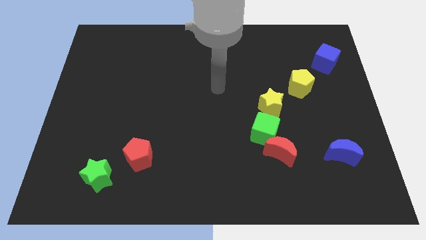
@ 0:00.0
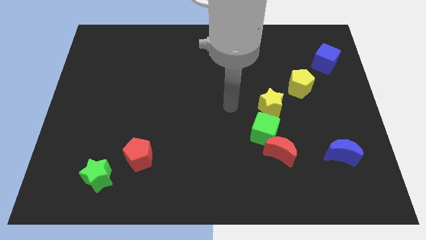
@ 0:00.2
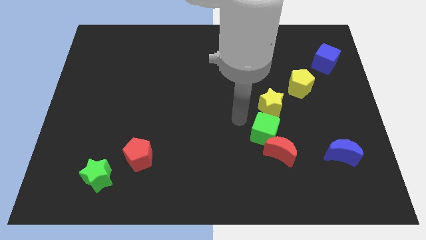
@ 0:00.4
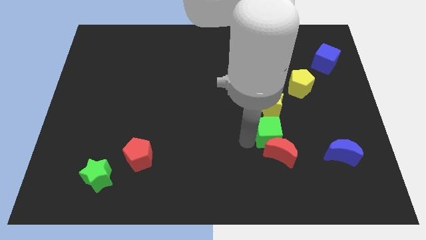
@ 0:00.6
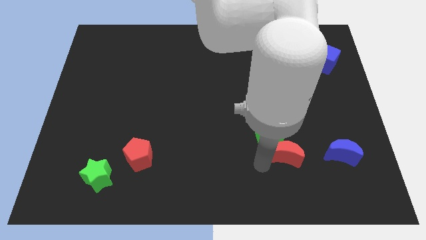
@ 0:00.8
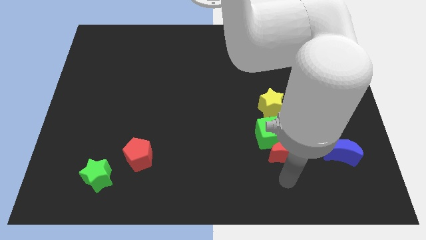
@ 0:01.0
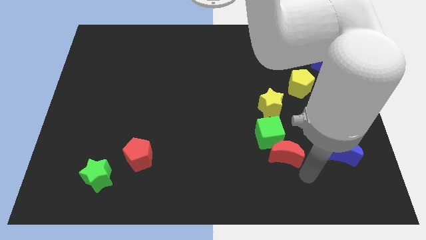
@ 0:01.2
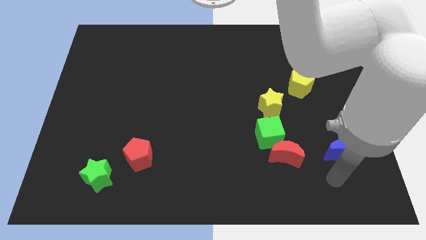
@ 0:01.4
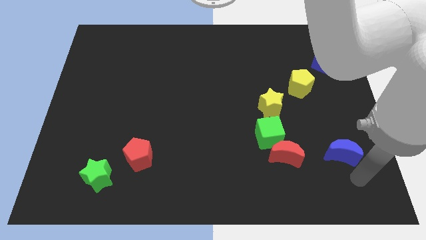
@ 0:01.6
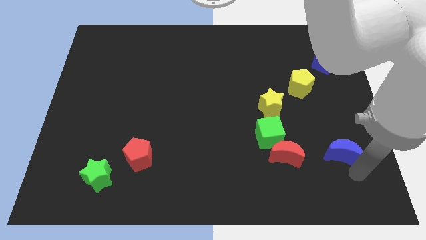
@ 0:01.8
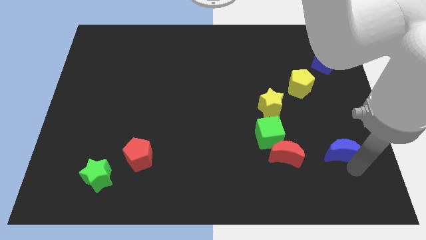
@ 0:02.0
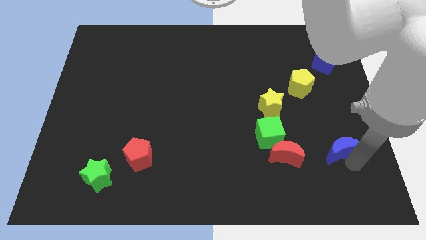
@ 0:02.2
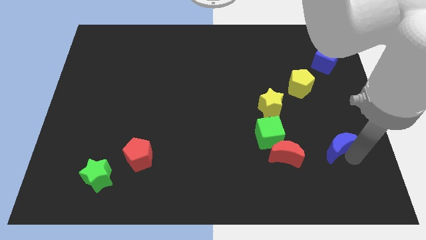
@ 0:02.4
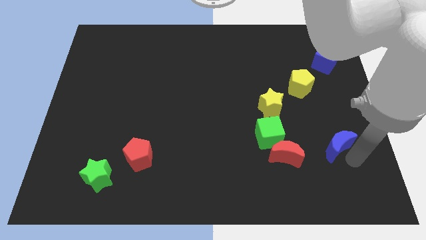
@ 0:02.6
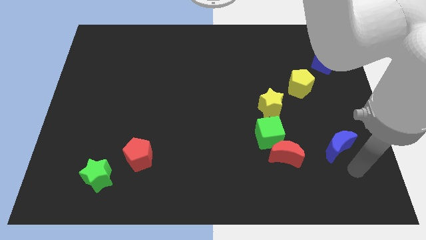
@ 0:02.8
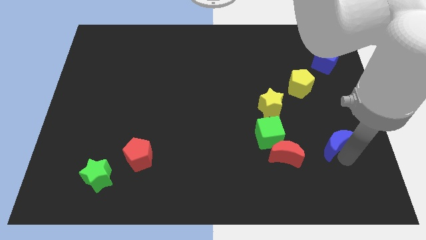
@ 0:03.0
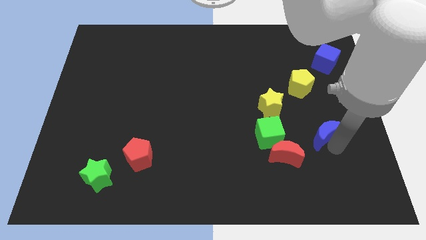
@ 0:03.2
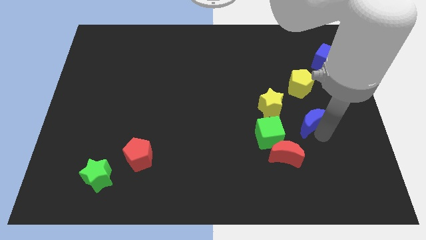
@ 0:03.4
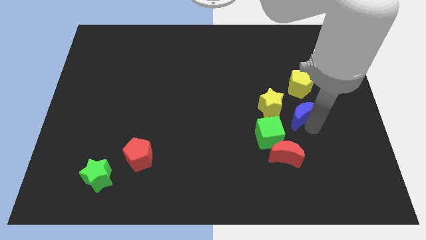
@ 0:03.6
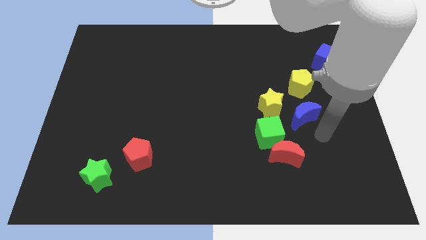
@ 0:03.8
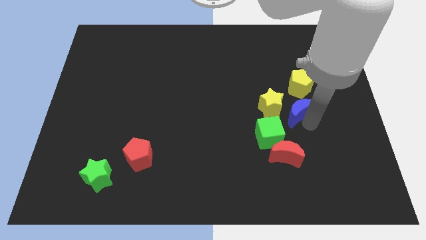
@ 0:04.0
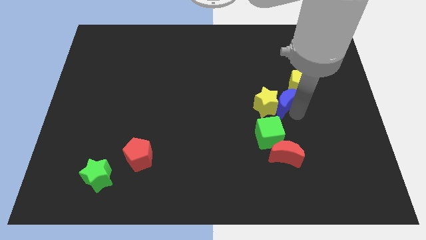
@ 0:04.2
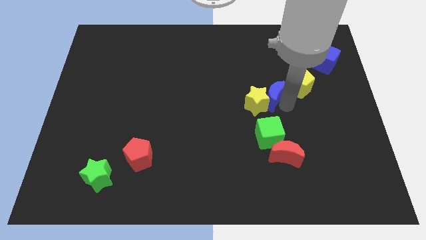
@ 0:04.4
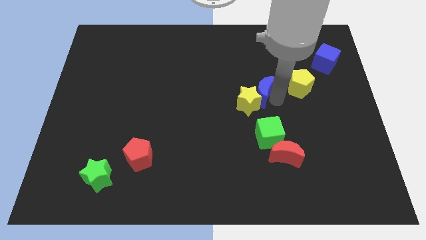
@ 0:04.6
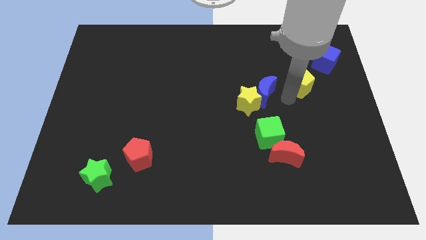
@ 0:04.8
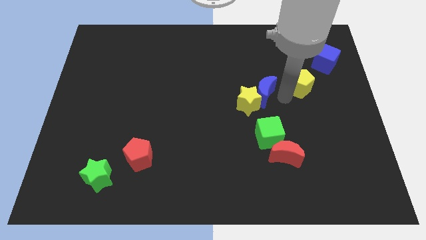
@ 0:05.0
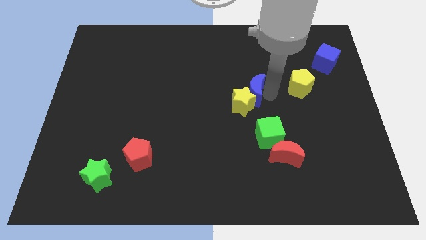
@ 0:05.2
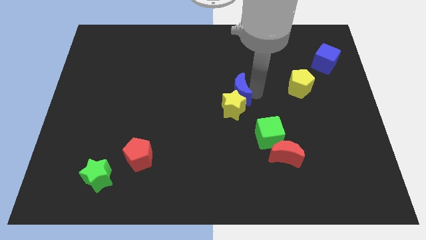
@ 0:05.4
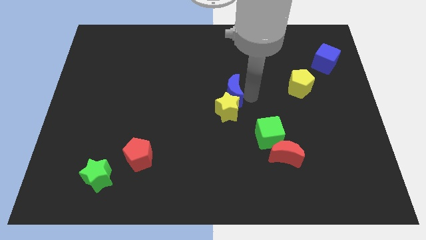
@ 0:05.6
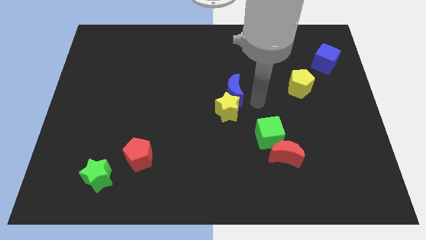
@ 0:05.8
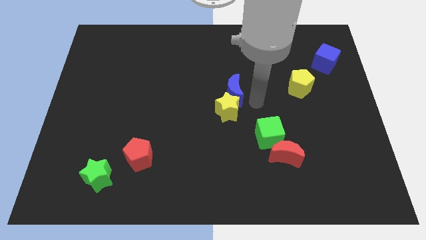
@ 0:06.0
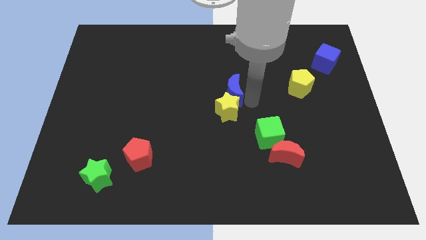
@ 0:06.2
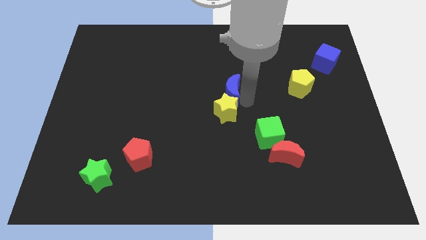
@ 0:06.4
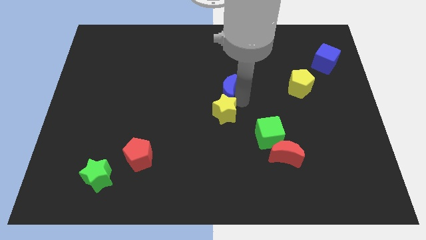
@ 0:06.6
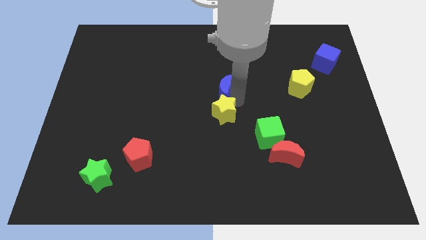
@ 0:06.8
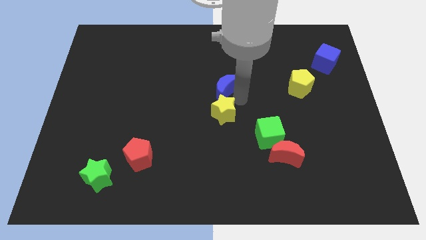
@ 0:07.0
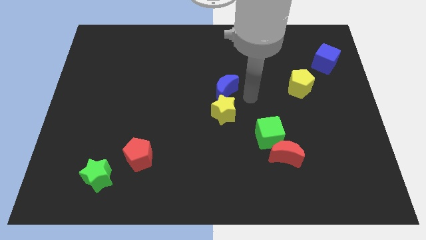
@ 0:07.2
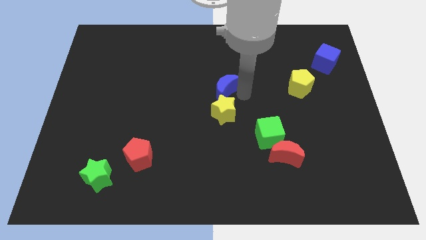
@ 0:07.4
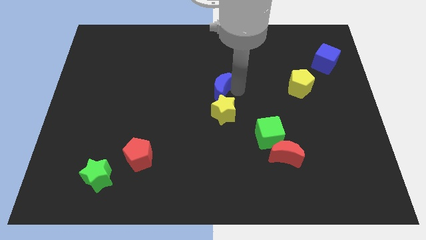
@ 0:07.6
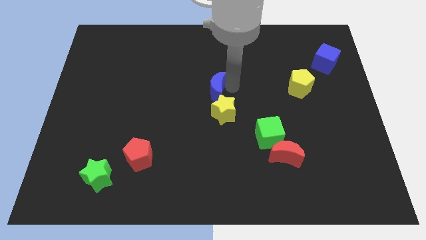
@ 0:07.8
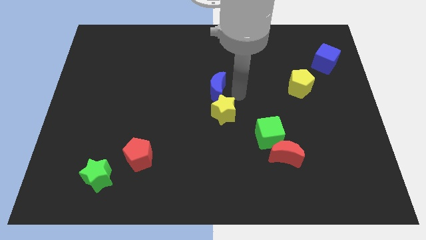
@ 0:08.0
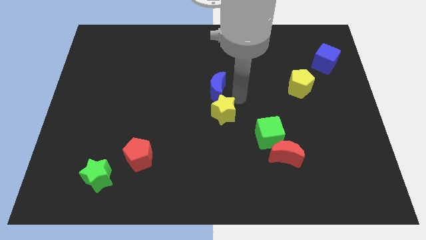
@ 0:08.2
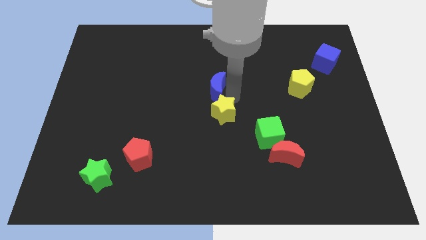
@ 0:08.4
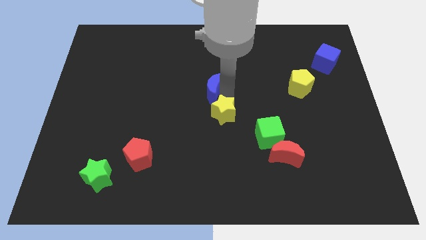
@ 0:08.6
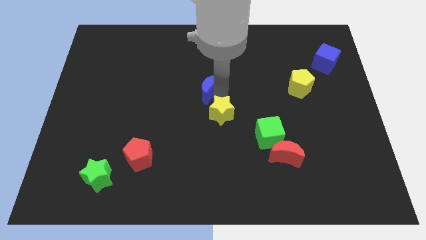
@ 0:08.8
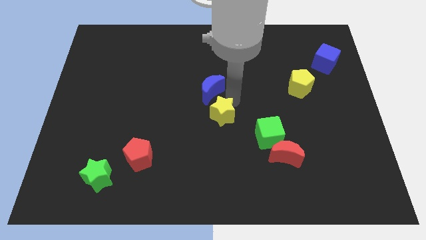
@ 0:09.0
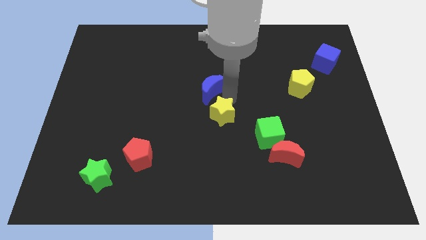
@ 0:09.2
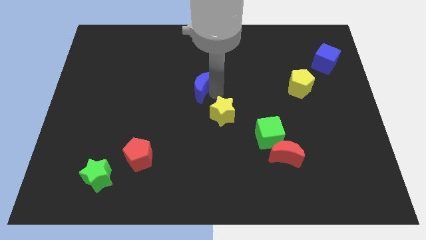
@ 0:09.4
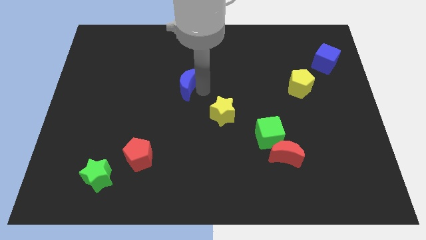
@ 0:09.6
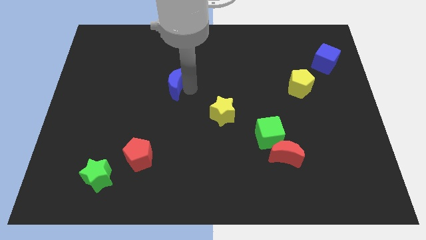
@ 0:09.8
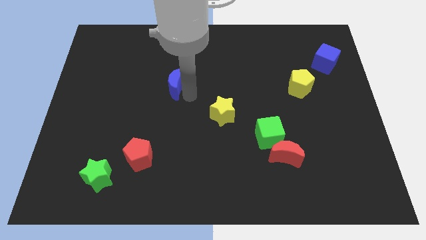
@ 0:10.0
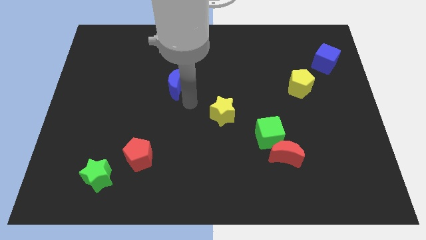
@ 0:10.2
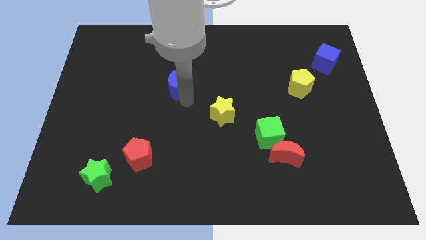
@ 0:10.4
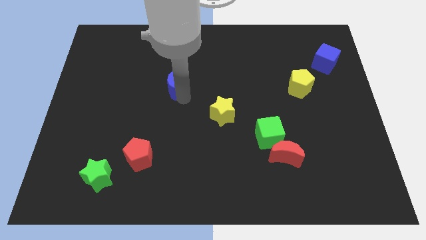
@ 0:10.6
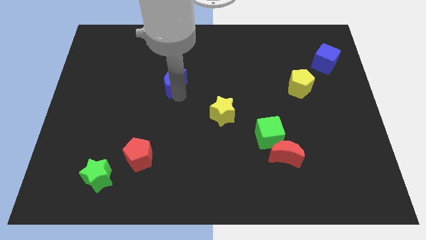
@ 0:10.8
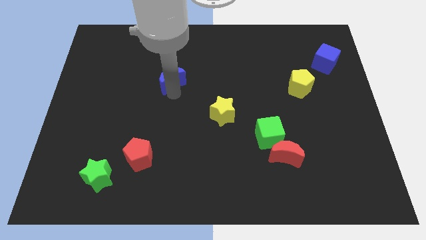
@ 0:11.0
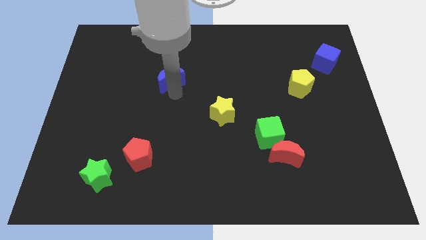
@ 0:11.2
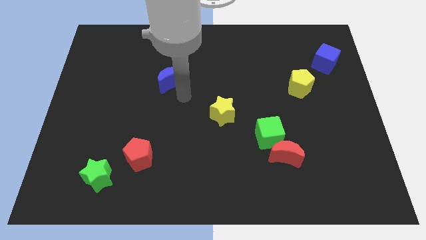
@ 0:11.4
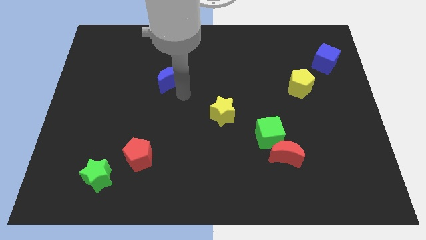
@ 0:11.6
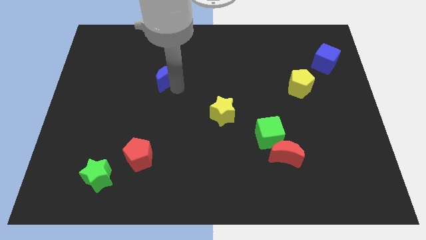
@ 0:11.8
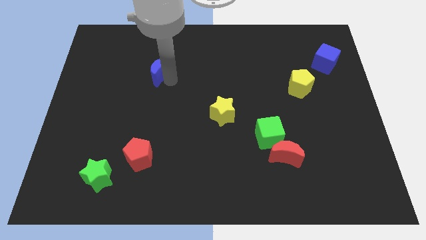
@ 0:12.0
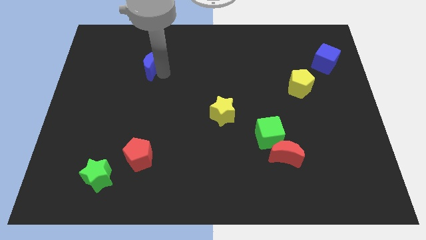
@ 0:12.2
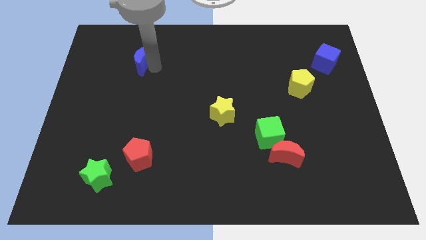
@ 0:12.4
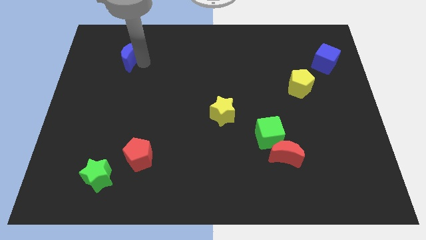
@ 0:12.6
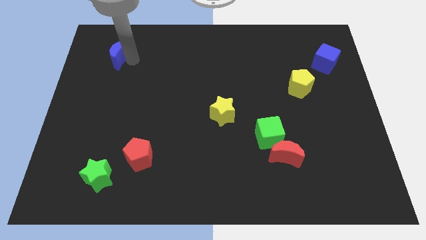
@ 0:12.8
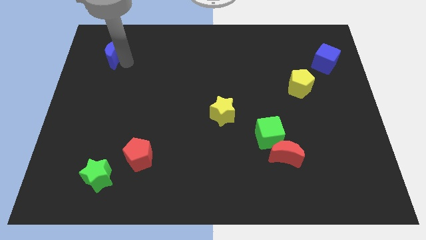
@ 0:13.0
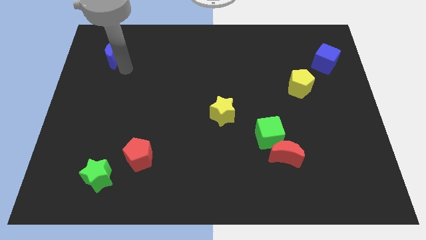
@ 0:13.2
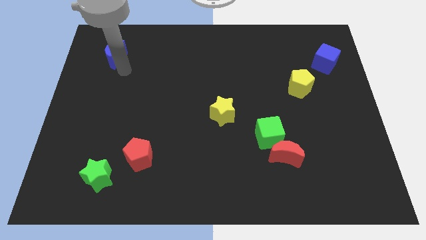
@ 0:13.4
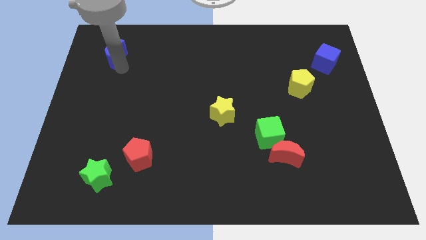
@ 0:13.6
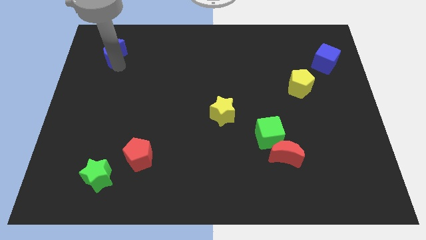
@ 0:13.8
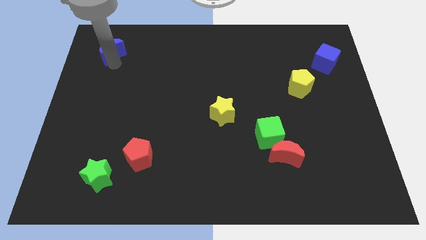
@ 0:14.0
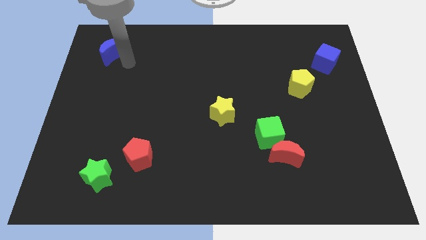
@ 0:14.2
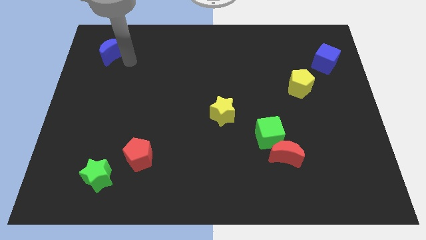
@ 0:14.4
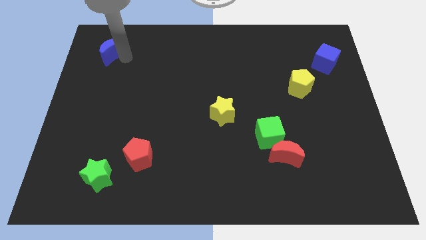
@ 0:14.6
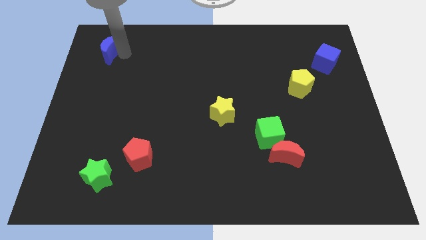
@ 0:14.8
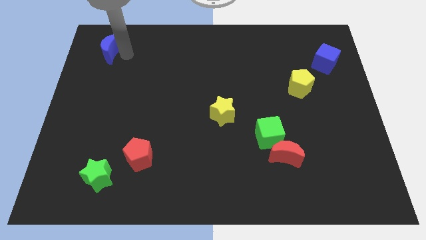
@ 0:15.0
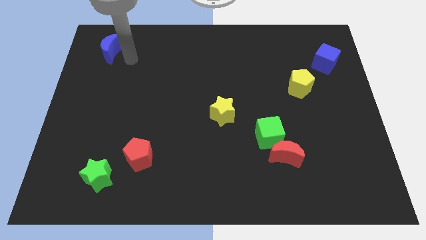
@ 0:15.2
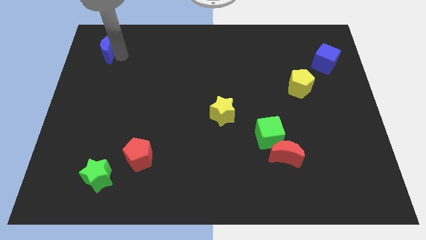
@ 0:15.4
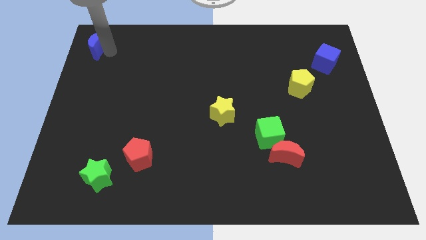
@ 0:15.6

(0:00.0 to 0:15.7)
slide the blue moon to the upper left corner
